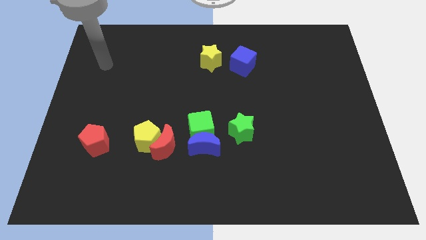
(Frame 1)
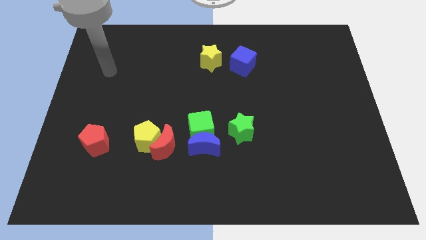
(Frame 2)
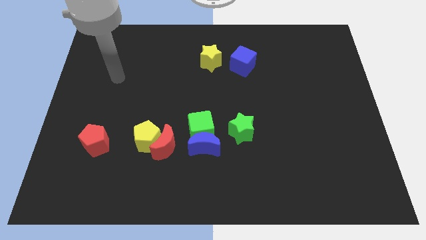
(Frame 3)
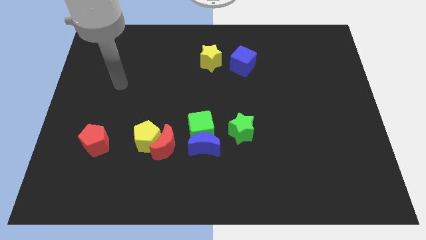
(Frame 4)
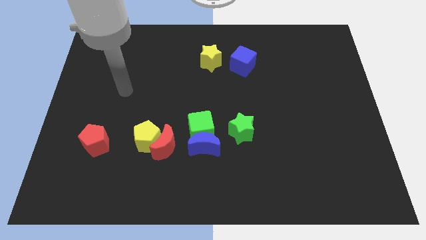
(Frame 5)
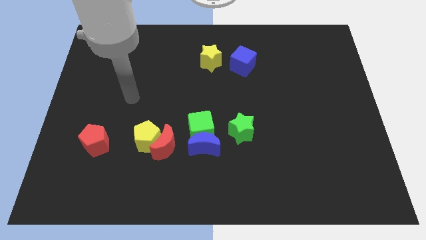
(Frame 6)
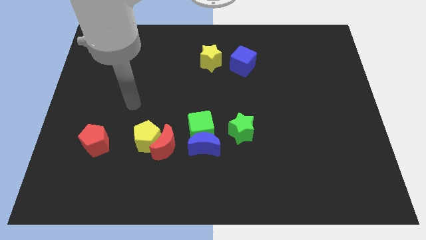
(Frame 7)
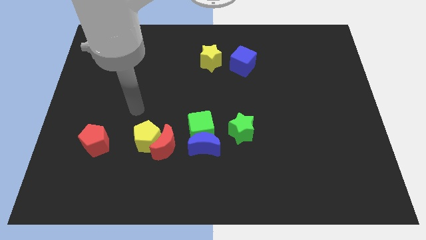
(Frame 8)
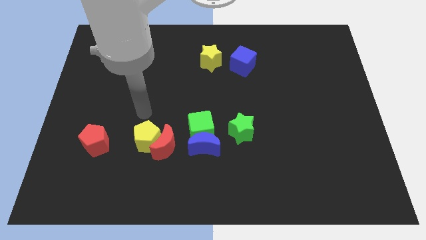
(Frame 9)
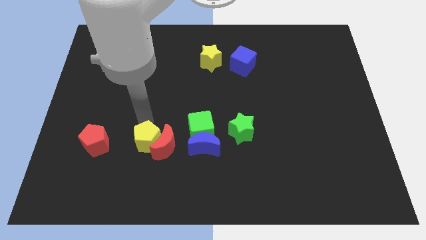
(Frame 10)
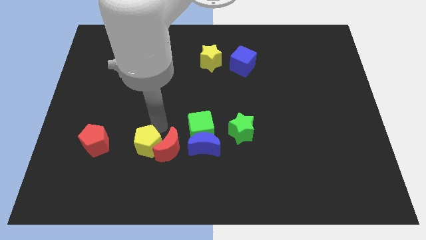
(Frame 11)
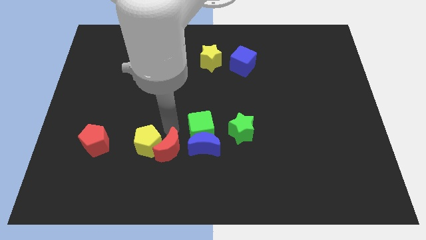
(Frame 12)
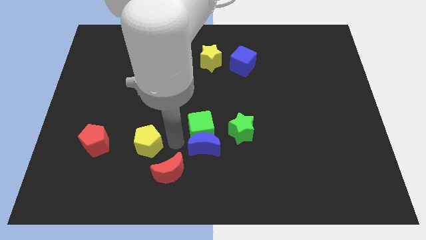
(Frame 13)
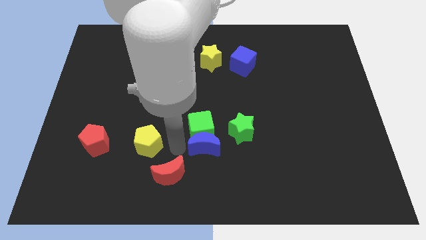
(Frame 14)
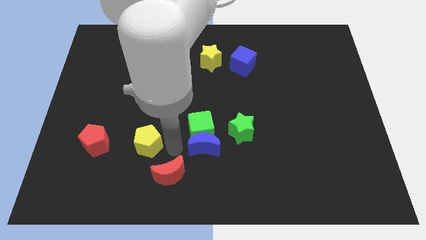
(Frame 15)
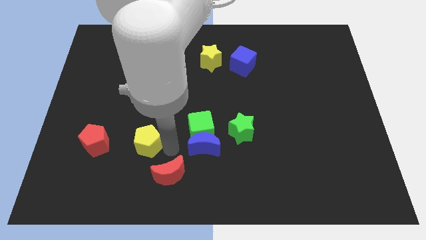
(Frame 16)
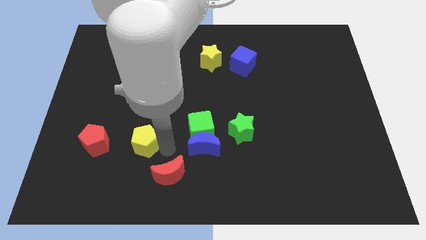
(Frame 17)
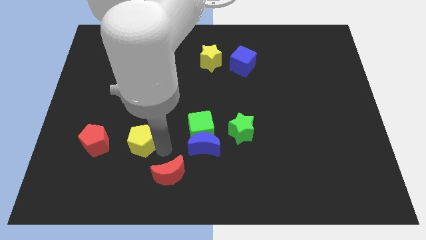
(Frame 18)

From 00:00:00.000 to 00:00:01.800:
separate the yellow pentagon from the red moon

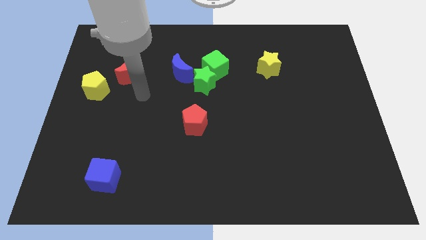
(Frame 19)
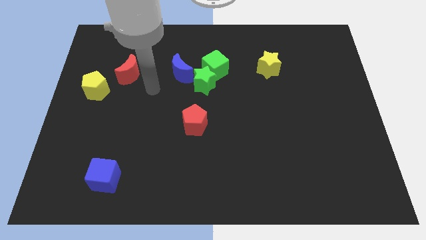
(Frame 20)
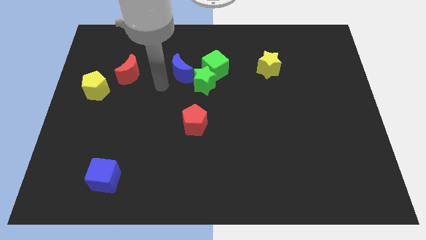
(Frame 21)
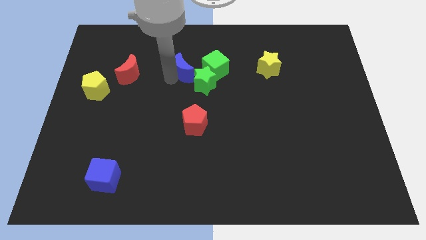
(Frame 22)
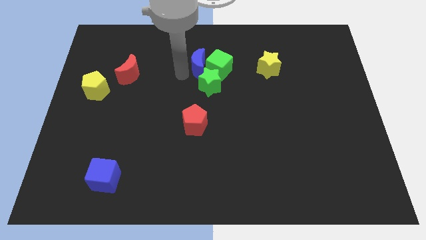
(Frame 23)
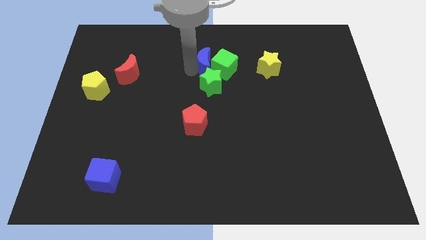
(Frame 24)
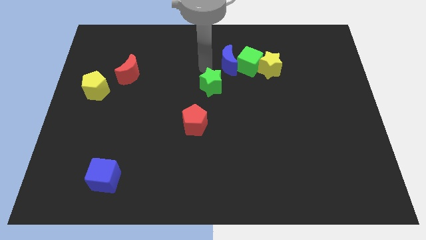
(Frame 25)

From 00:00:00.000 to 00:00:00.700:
separate the green star from the green cube and blue moon

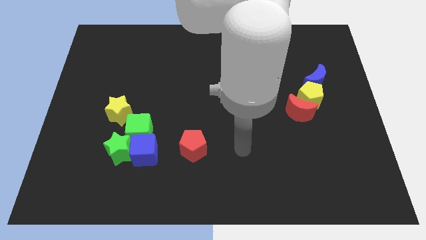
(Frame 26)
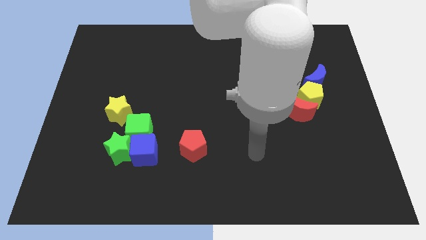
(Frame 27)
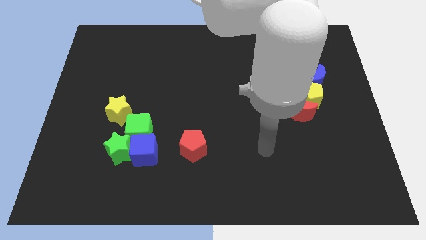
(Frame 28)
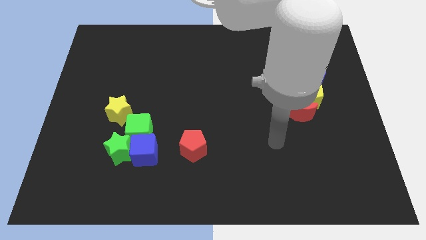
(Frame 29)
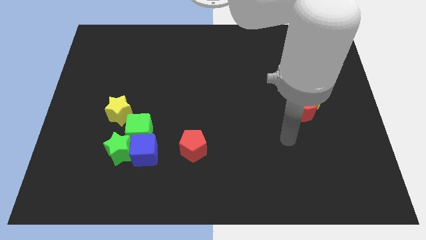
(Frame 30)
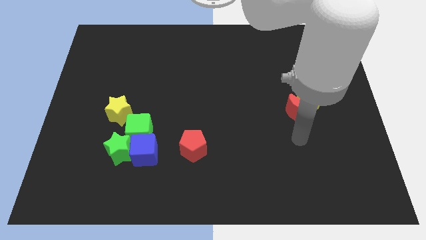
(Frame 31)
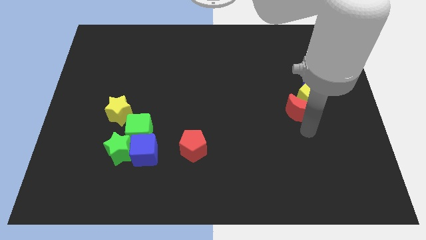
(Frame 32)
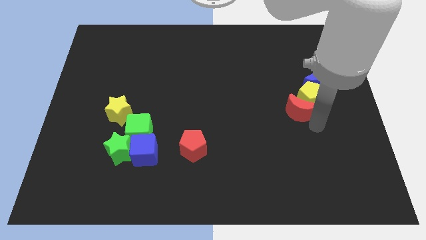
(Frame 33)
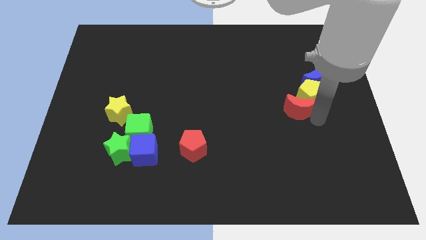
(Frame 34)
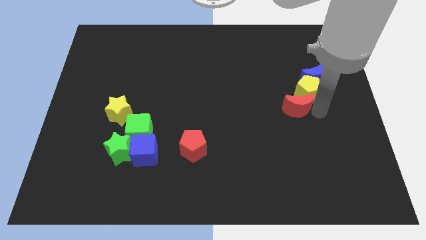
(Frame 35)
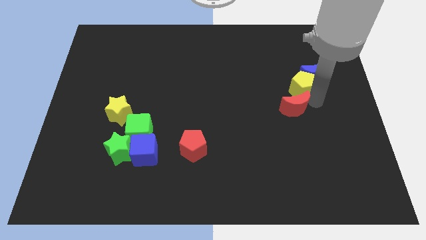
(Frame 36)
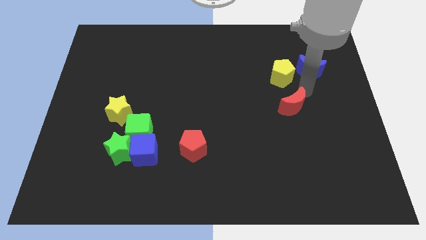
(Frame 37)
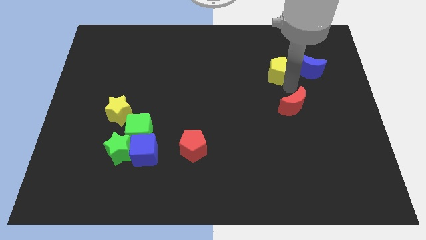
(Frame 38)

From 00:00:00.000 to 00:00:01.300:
pull the red moon apart from the yellow pentagon

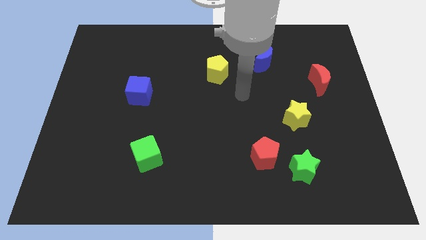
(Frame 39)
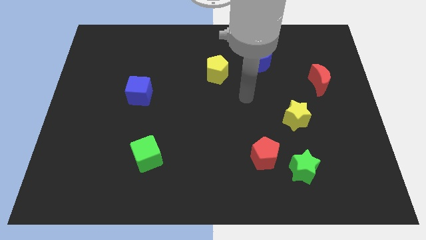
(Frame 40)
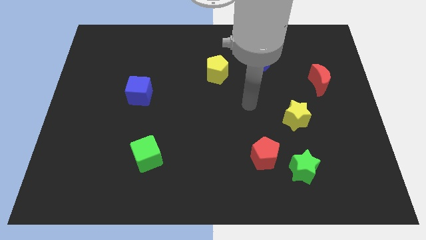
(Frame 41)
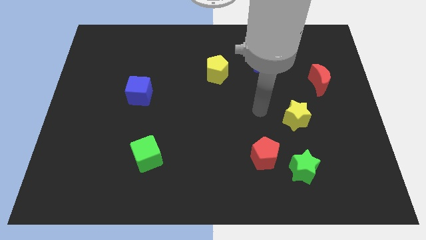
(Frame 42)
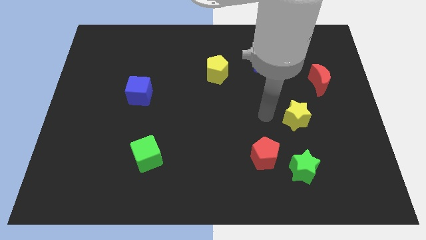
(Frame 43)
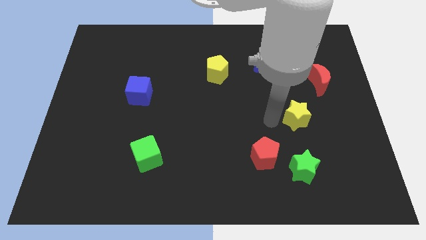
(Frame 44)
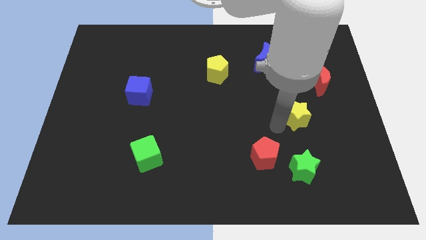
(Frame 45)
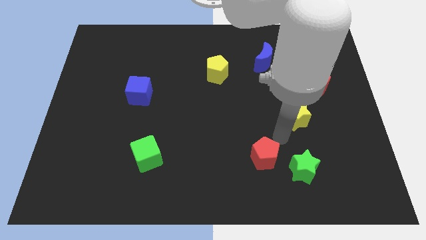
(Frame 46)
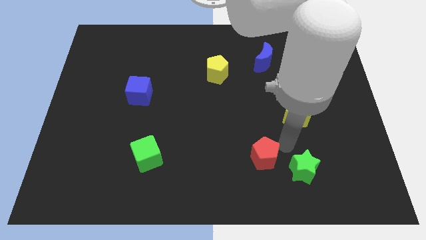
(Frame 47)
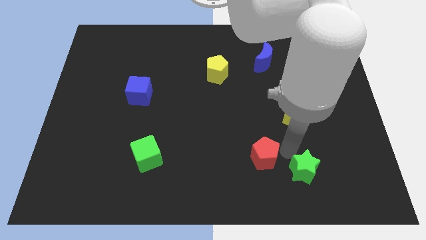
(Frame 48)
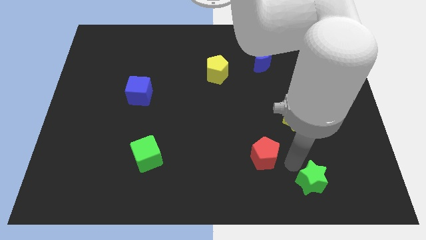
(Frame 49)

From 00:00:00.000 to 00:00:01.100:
separate the red pentagon from the green star

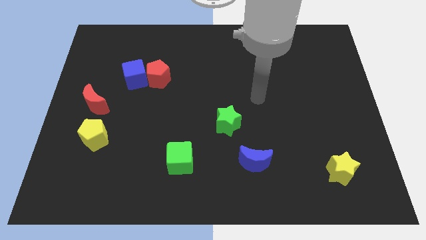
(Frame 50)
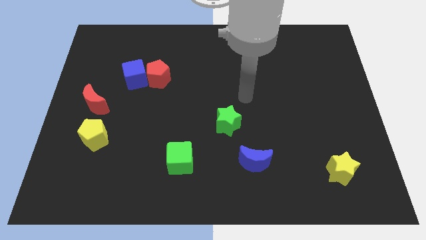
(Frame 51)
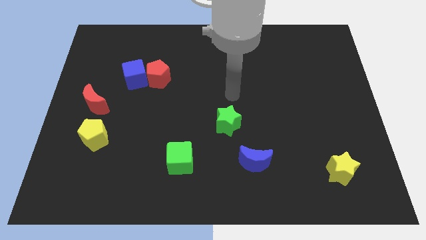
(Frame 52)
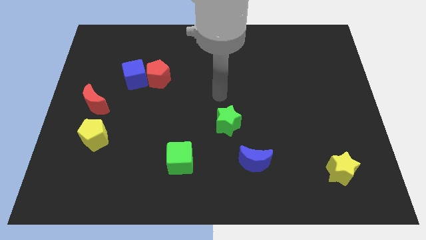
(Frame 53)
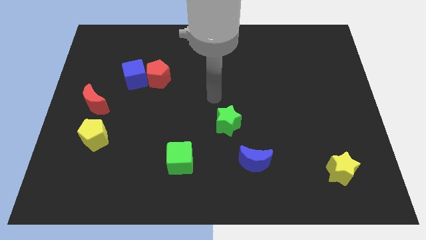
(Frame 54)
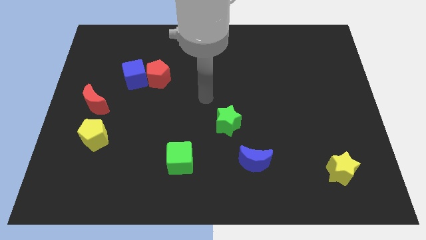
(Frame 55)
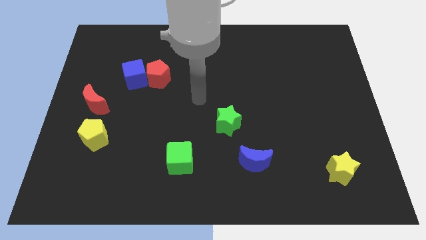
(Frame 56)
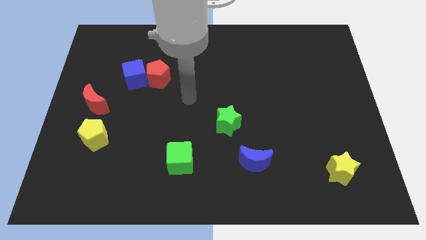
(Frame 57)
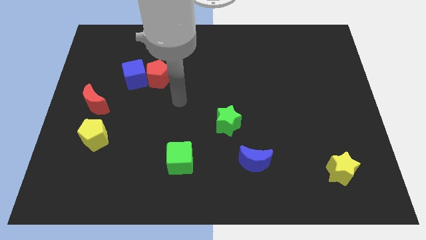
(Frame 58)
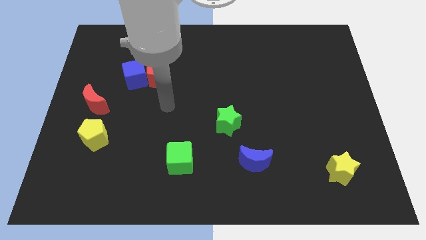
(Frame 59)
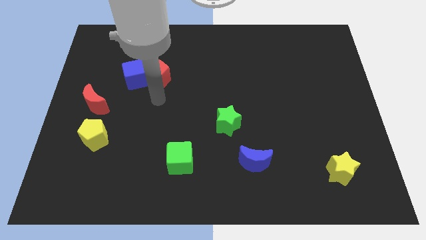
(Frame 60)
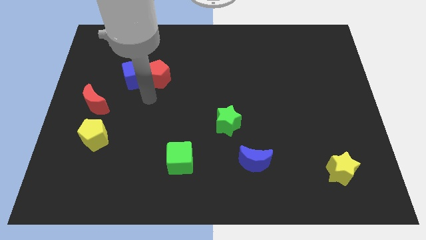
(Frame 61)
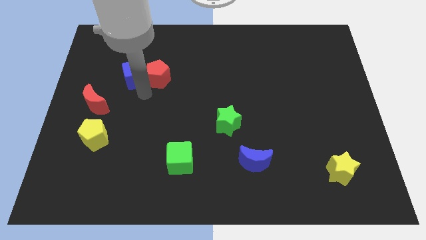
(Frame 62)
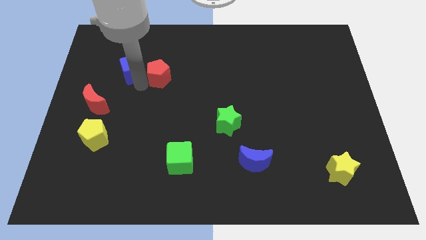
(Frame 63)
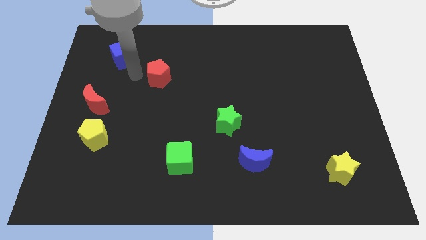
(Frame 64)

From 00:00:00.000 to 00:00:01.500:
pull the red pentagon apart from the blue cube

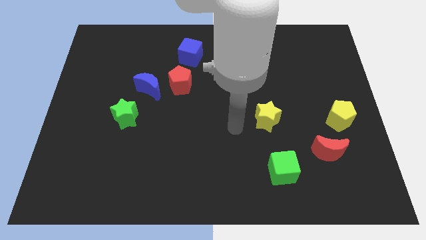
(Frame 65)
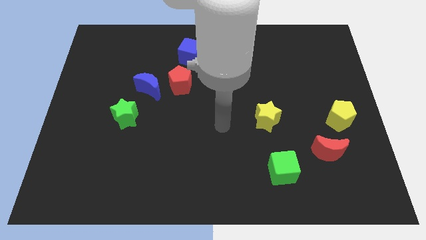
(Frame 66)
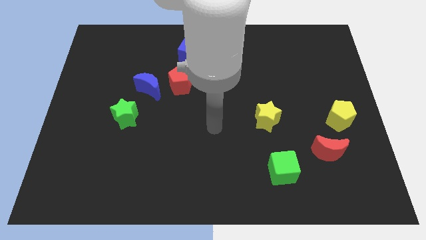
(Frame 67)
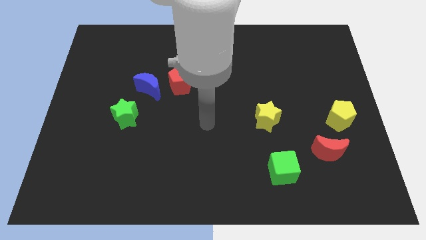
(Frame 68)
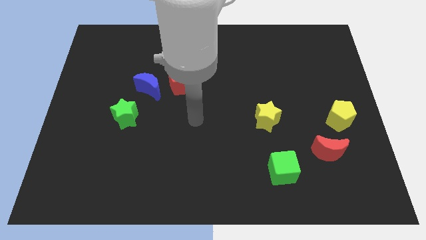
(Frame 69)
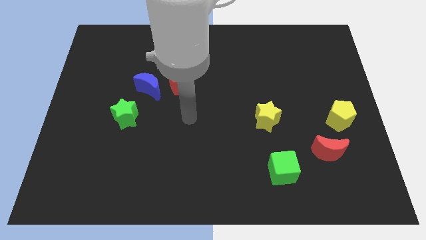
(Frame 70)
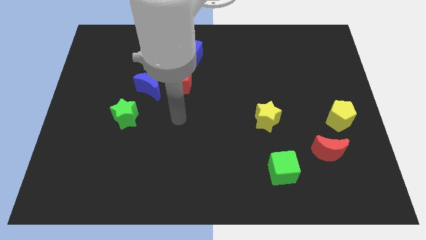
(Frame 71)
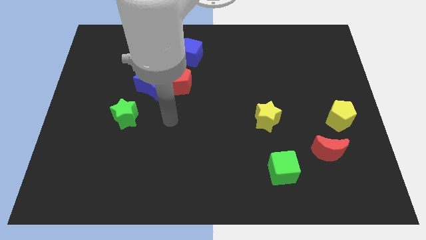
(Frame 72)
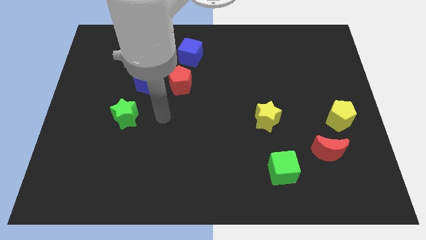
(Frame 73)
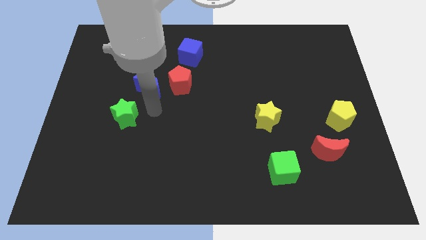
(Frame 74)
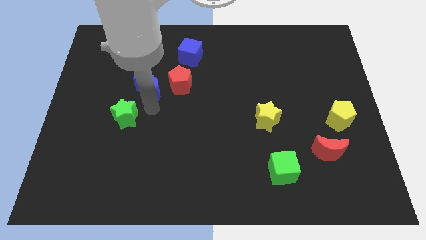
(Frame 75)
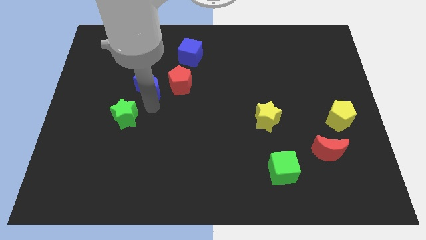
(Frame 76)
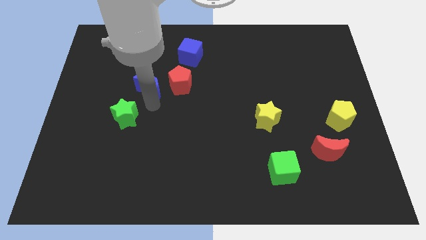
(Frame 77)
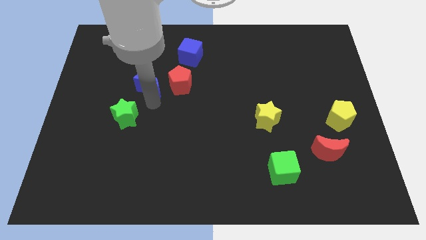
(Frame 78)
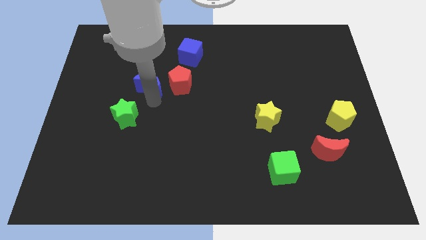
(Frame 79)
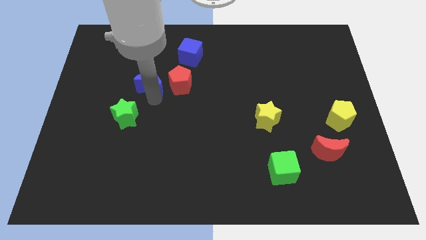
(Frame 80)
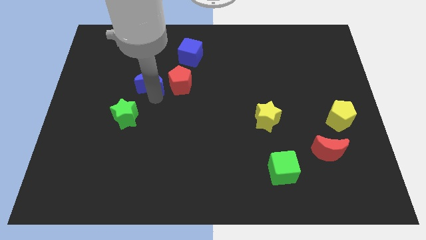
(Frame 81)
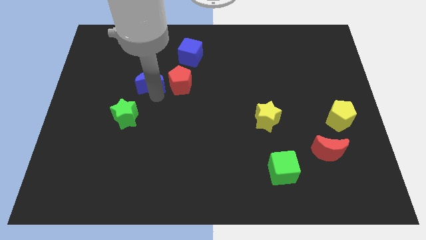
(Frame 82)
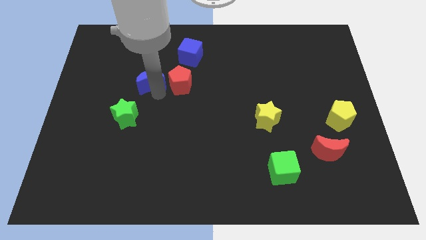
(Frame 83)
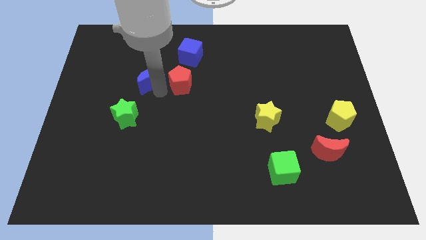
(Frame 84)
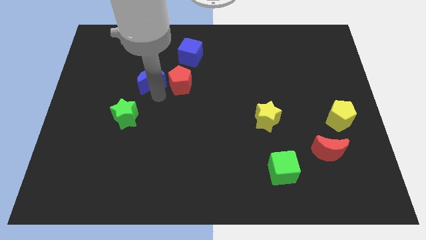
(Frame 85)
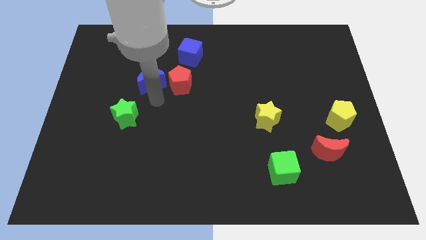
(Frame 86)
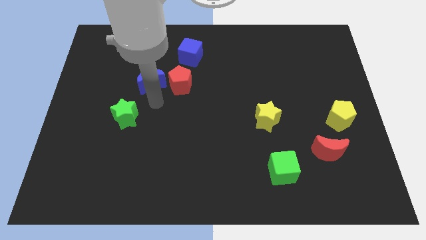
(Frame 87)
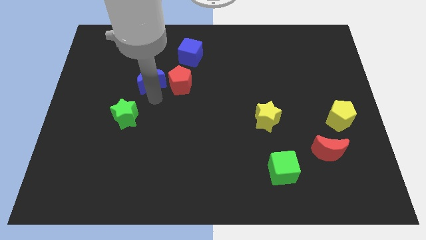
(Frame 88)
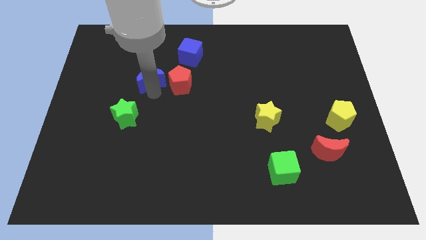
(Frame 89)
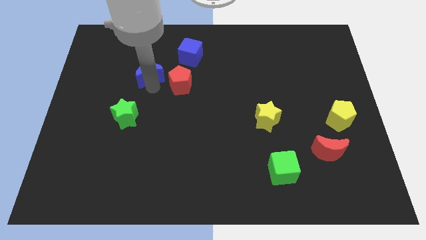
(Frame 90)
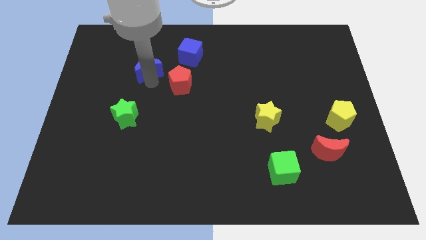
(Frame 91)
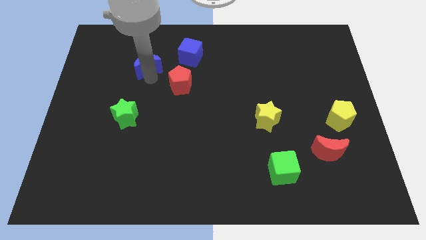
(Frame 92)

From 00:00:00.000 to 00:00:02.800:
move the blue moon away from the red pentagon and green star
